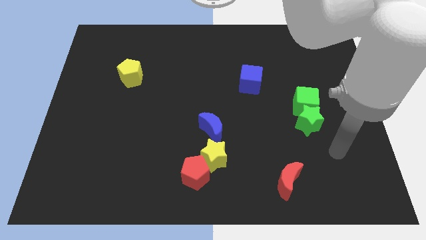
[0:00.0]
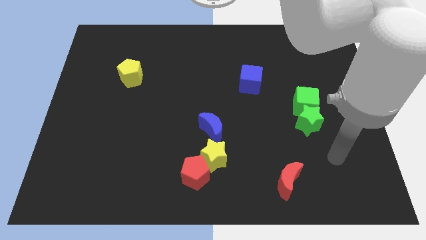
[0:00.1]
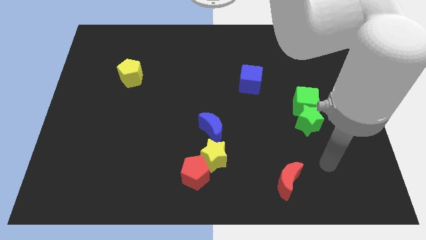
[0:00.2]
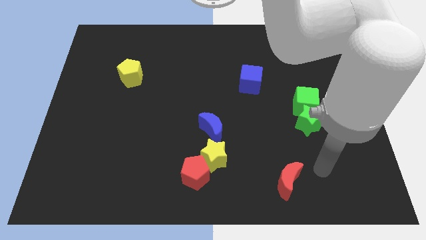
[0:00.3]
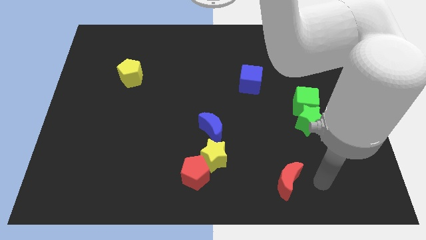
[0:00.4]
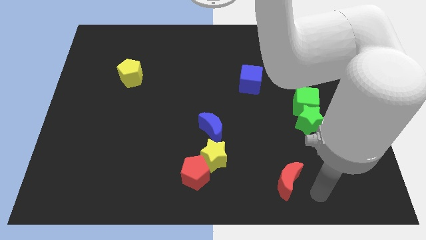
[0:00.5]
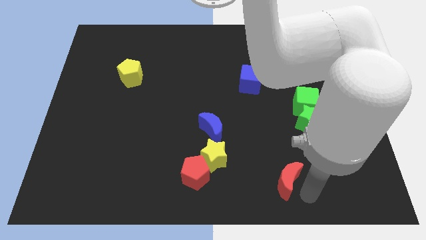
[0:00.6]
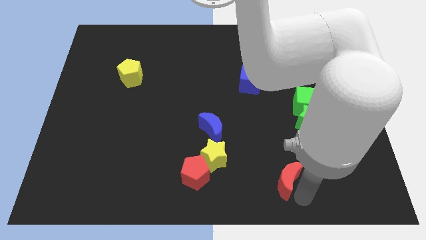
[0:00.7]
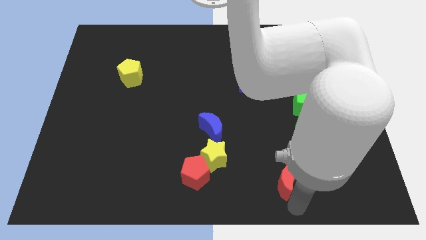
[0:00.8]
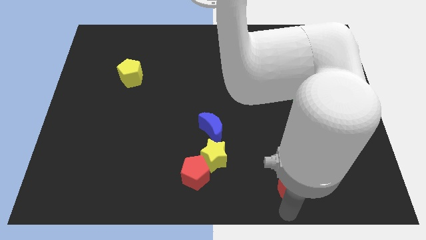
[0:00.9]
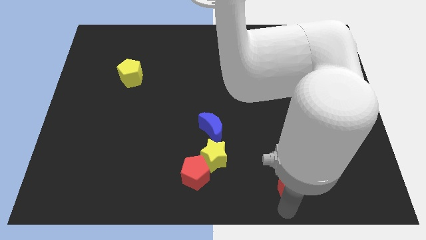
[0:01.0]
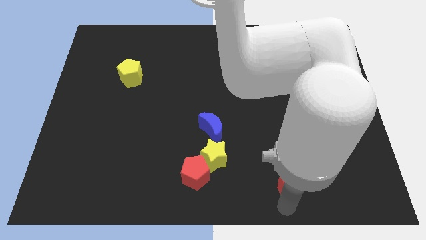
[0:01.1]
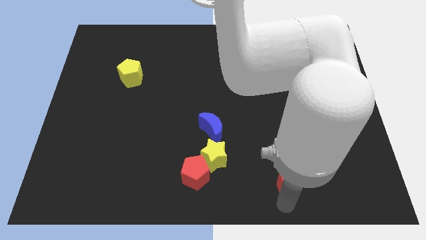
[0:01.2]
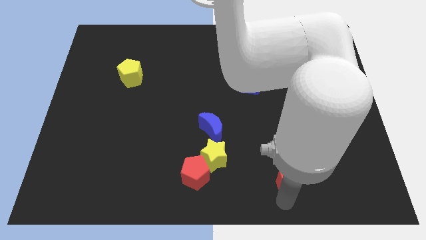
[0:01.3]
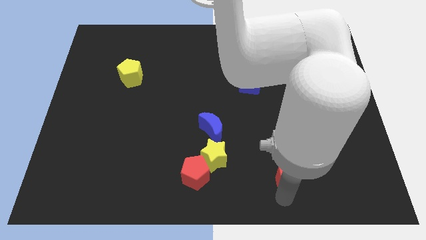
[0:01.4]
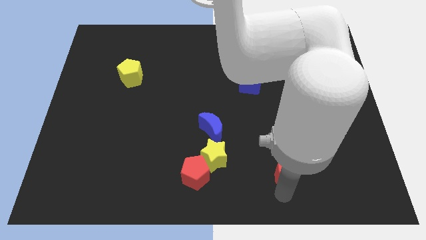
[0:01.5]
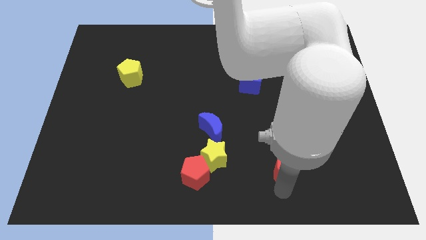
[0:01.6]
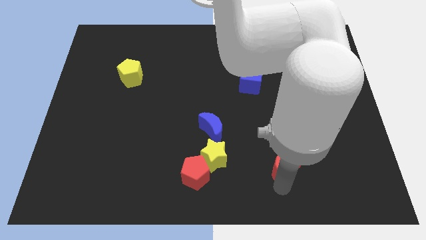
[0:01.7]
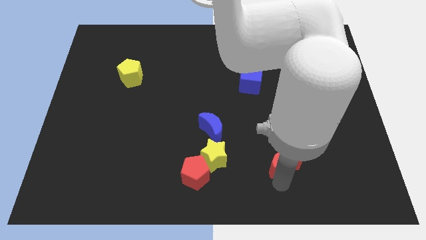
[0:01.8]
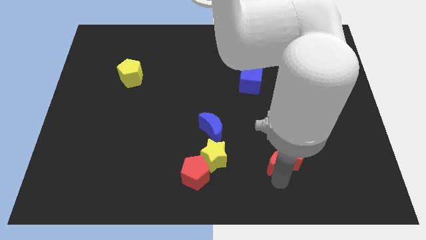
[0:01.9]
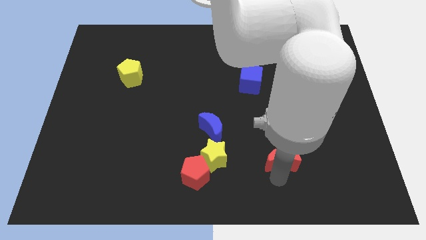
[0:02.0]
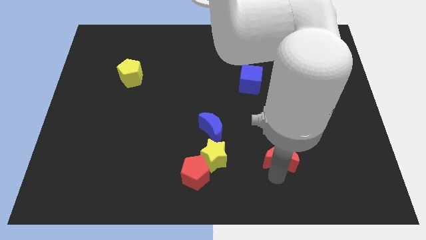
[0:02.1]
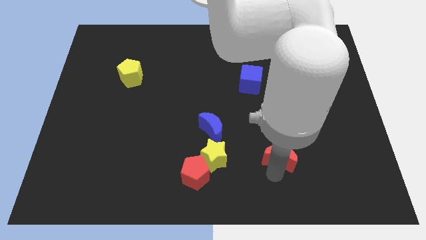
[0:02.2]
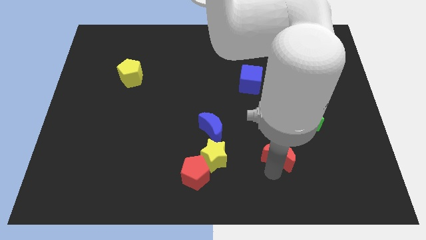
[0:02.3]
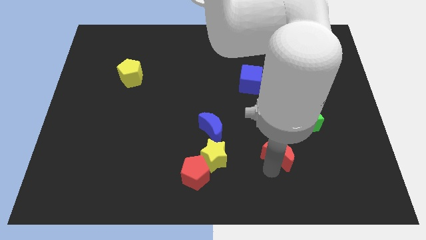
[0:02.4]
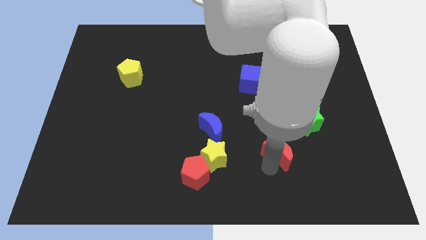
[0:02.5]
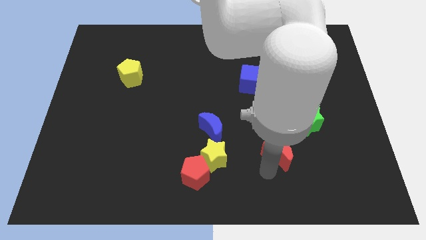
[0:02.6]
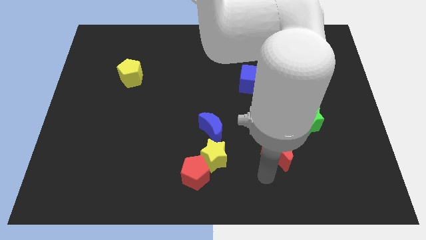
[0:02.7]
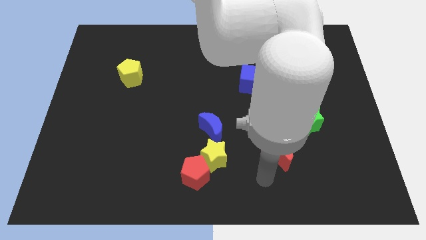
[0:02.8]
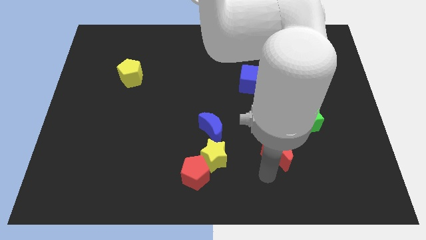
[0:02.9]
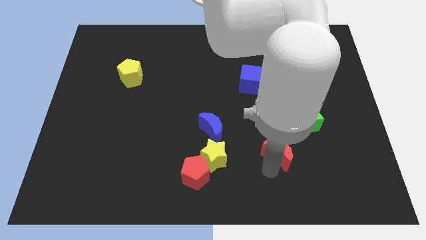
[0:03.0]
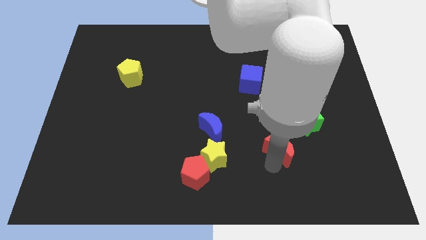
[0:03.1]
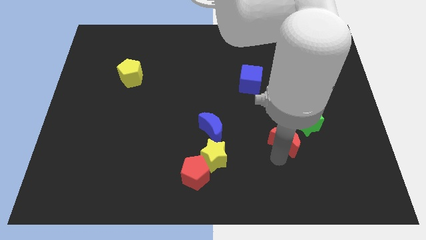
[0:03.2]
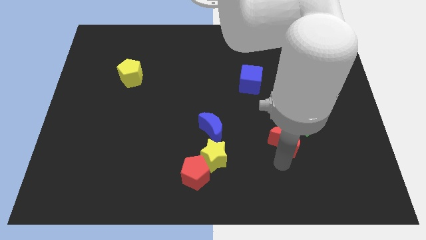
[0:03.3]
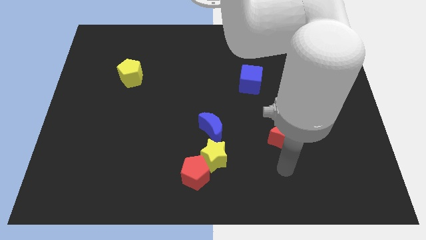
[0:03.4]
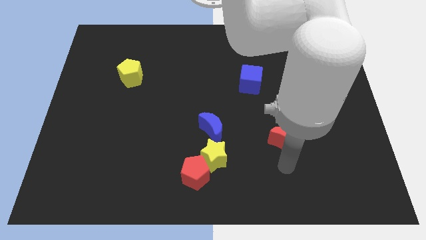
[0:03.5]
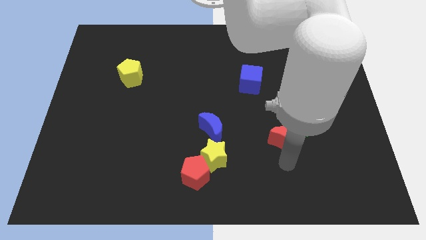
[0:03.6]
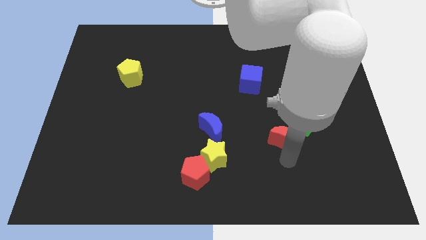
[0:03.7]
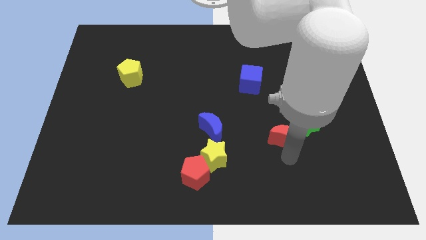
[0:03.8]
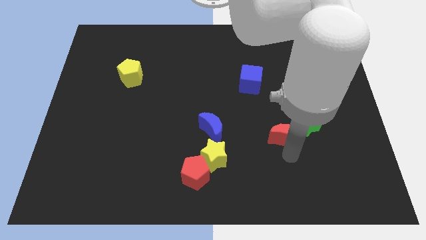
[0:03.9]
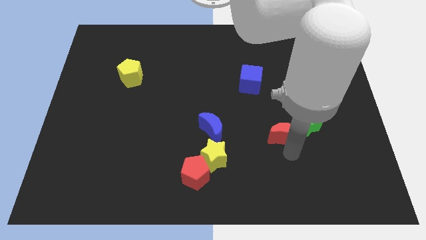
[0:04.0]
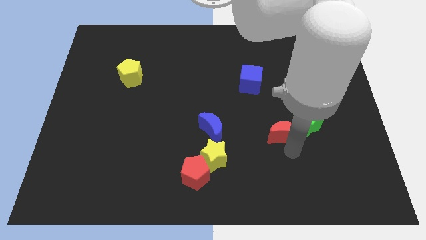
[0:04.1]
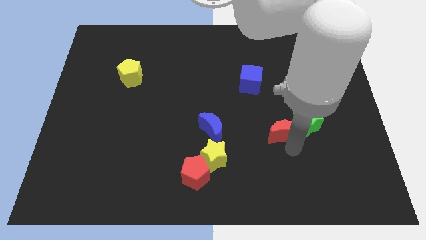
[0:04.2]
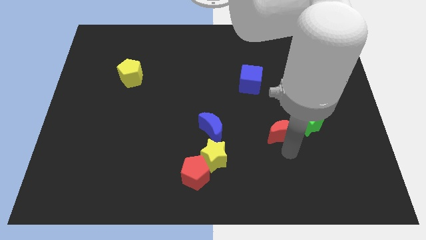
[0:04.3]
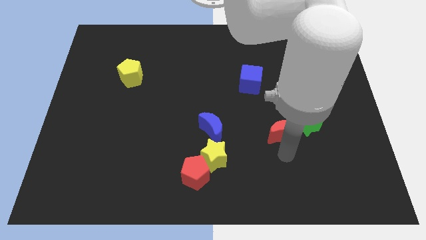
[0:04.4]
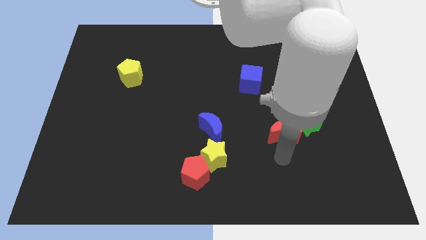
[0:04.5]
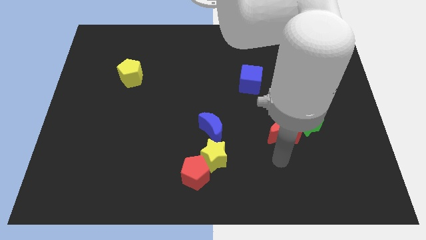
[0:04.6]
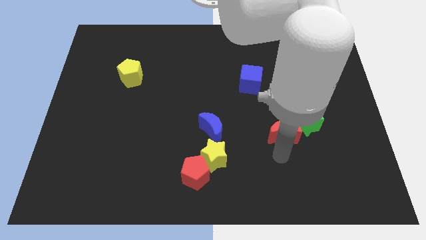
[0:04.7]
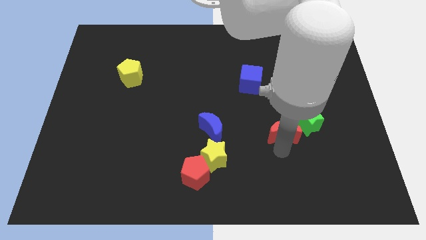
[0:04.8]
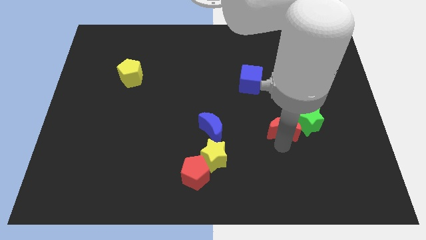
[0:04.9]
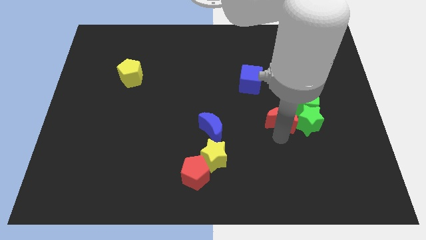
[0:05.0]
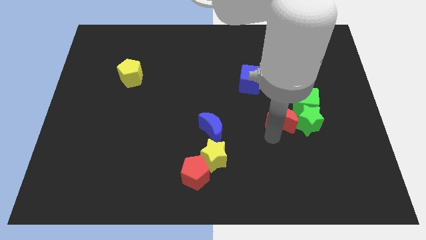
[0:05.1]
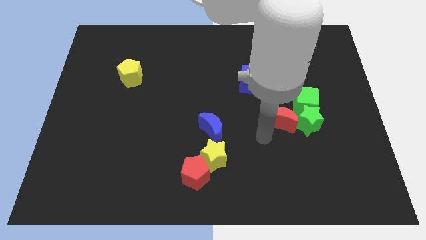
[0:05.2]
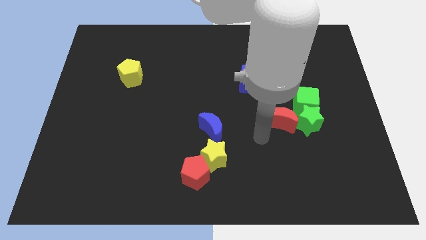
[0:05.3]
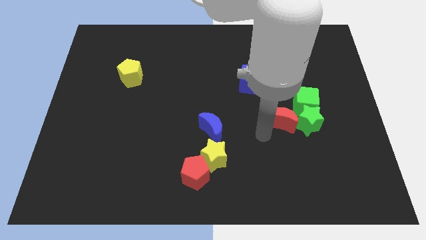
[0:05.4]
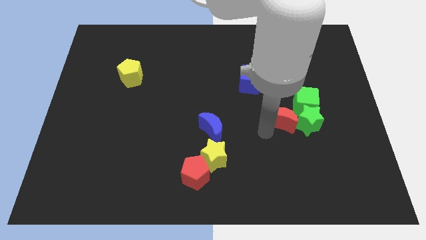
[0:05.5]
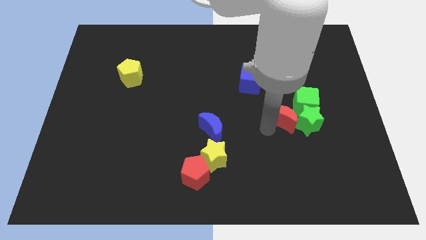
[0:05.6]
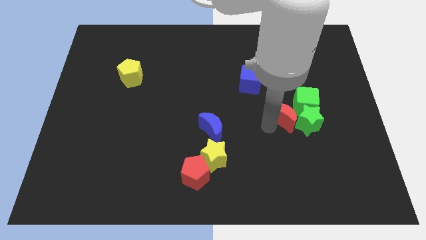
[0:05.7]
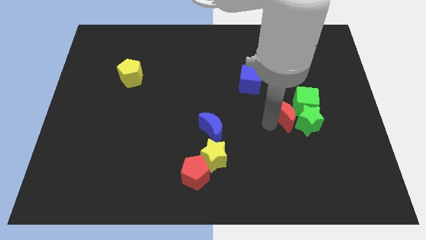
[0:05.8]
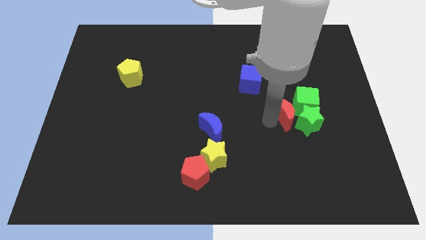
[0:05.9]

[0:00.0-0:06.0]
move the red moon to the green cube

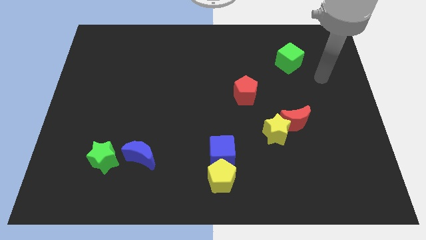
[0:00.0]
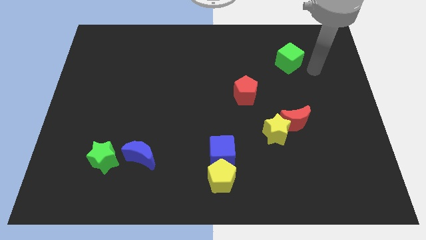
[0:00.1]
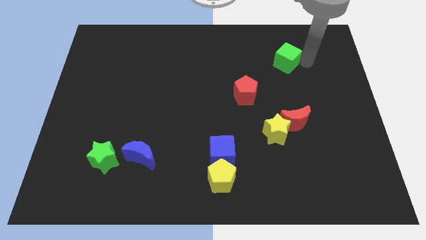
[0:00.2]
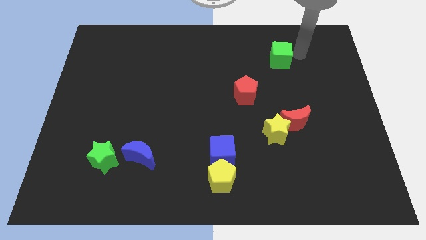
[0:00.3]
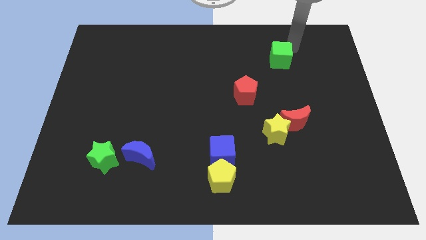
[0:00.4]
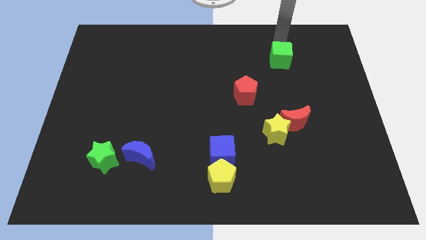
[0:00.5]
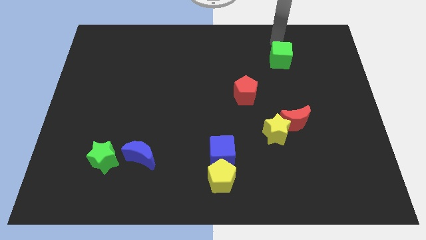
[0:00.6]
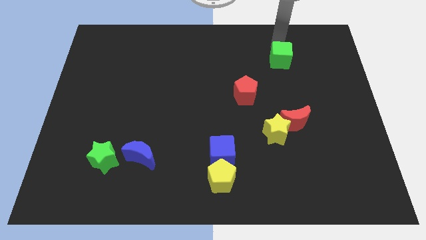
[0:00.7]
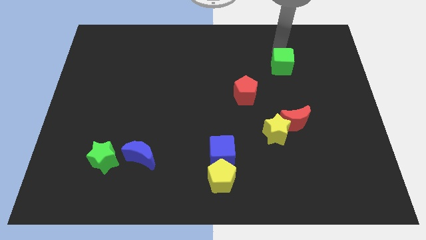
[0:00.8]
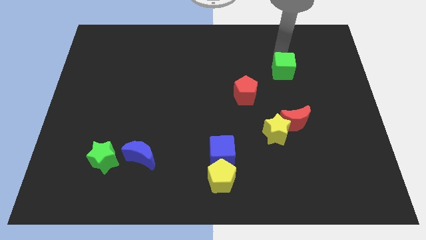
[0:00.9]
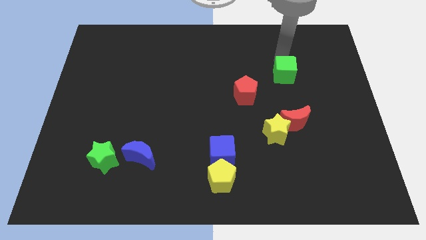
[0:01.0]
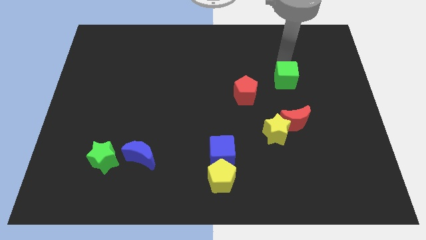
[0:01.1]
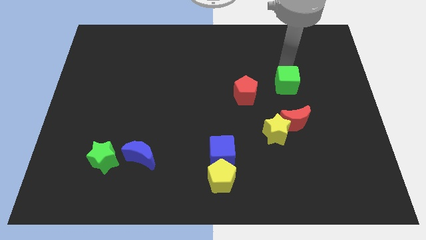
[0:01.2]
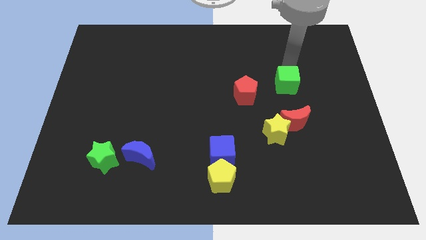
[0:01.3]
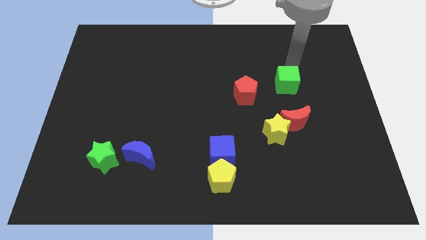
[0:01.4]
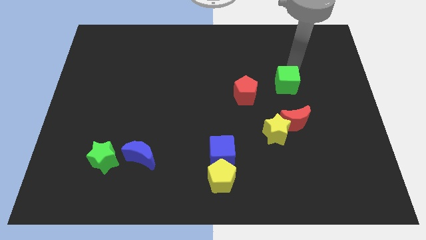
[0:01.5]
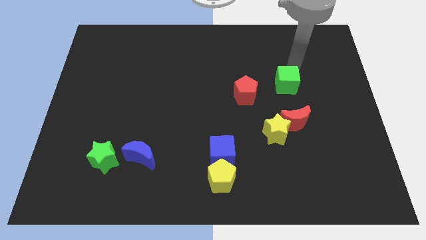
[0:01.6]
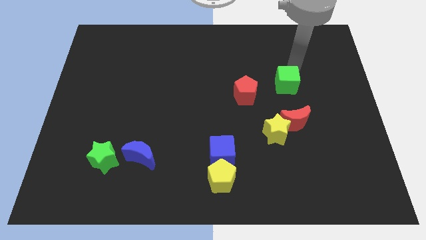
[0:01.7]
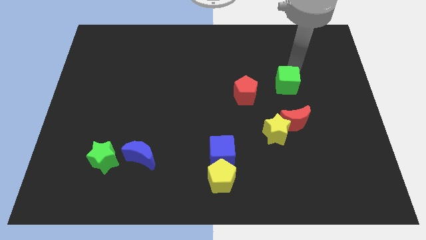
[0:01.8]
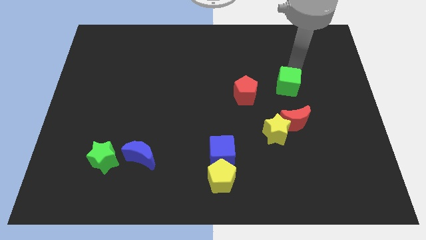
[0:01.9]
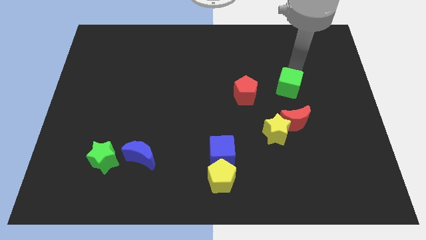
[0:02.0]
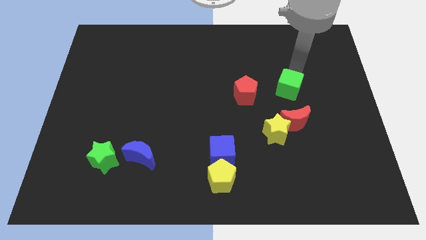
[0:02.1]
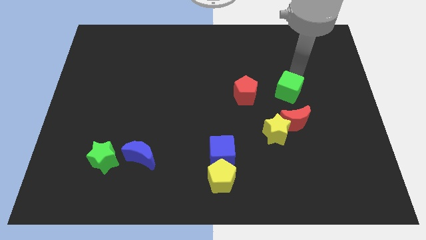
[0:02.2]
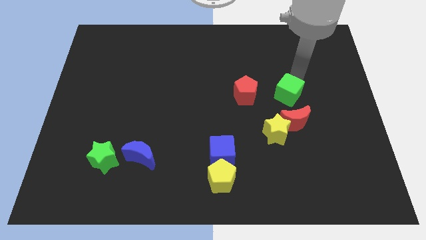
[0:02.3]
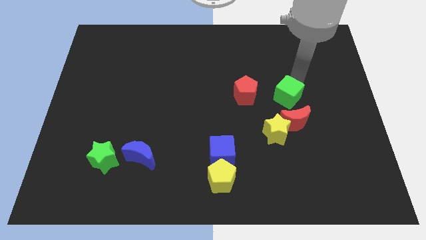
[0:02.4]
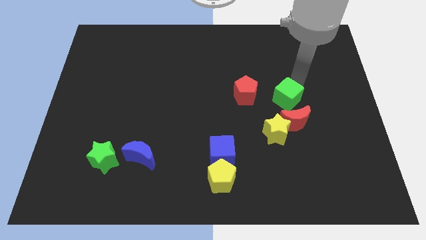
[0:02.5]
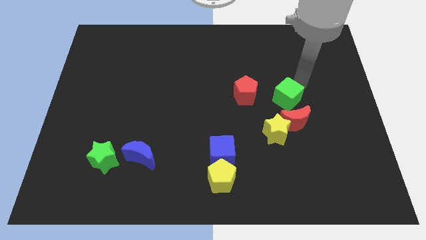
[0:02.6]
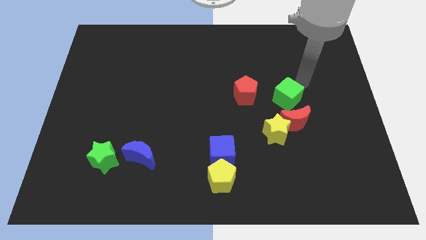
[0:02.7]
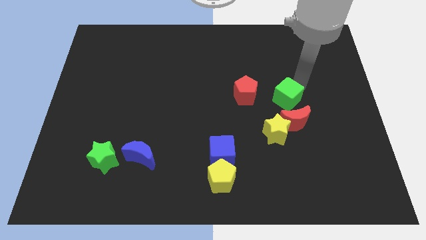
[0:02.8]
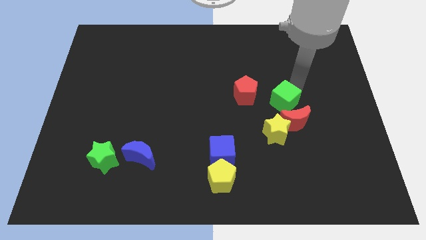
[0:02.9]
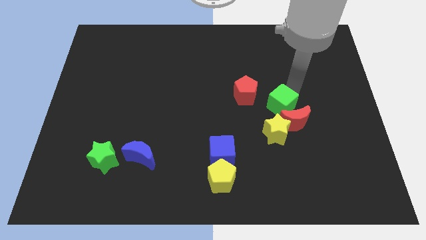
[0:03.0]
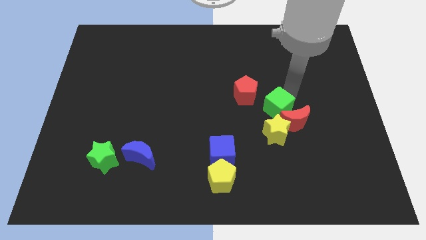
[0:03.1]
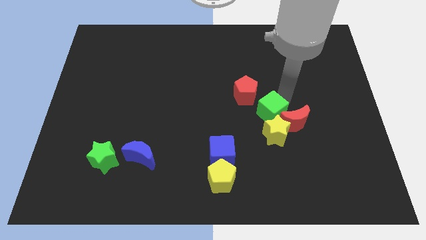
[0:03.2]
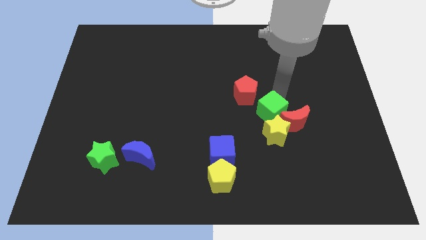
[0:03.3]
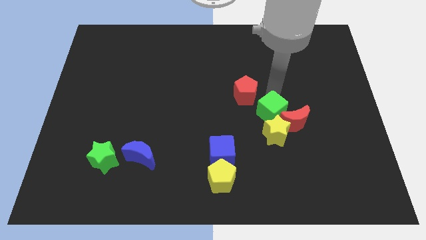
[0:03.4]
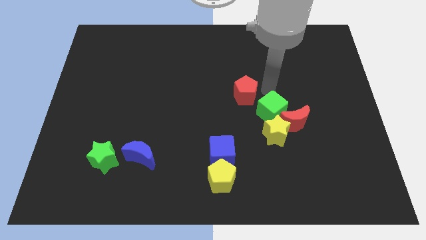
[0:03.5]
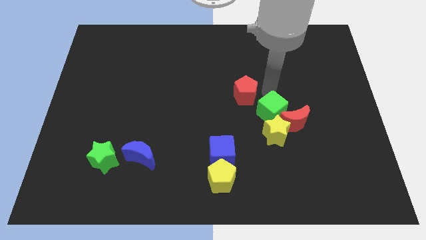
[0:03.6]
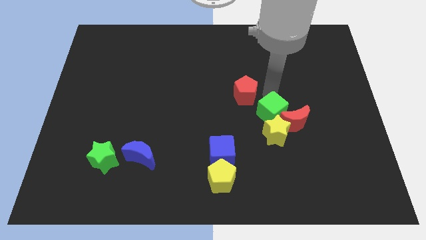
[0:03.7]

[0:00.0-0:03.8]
move the green cube next to the yellow star
